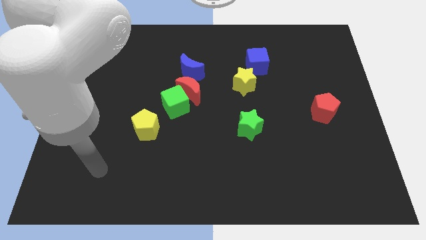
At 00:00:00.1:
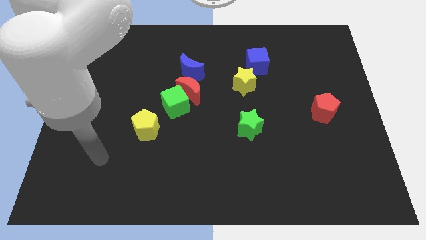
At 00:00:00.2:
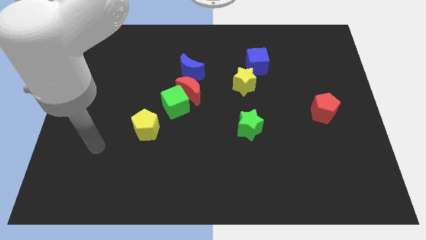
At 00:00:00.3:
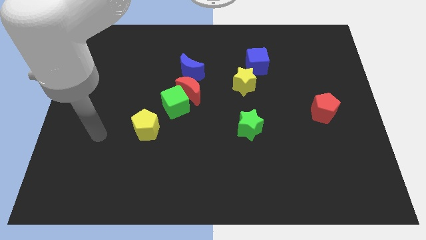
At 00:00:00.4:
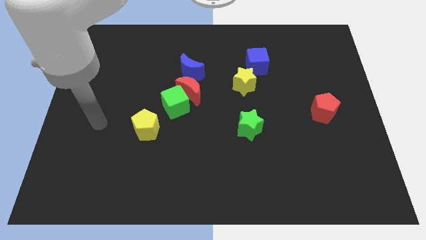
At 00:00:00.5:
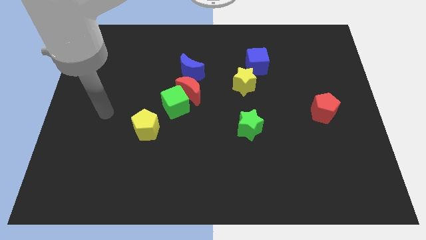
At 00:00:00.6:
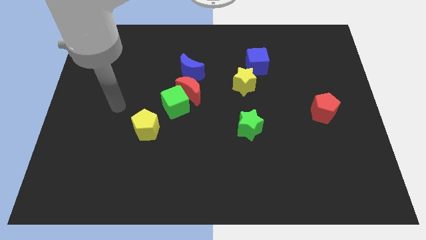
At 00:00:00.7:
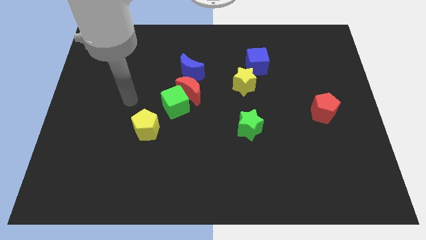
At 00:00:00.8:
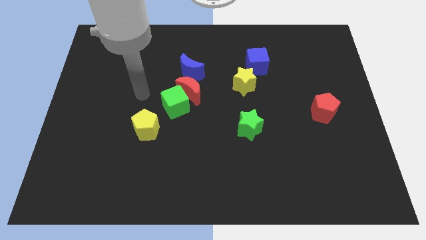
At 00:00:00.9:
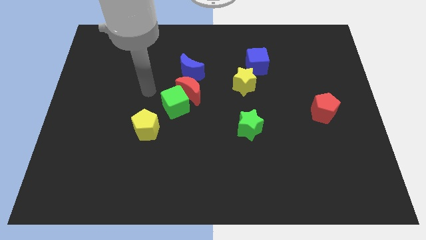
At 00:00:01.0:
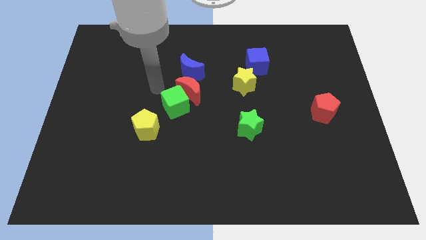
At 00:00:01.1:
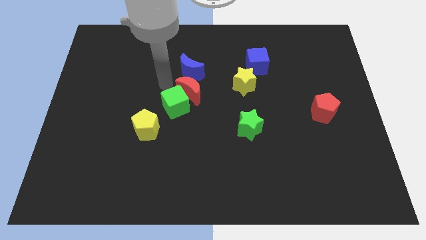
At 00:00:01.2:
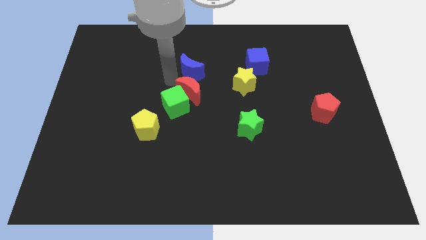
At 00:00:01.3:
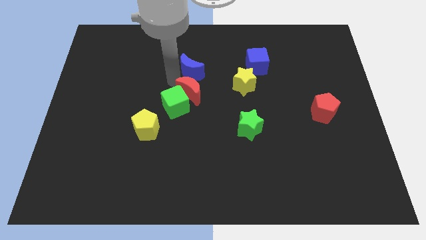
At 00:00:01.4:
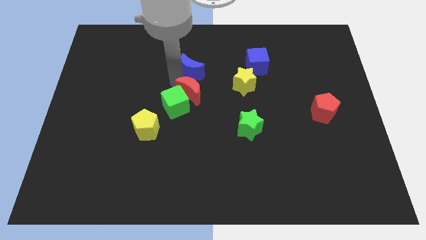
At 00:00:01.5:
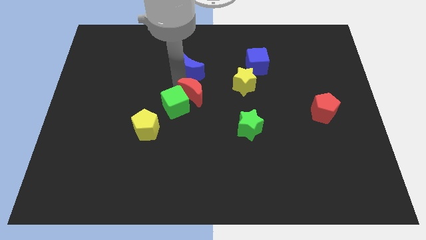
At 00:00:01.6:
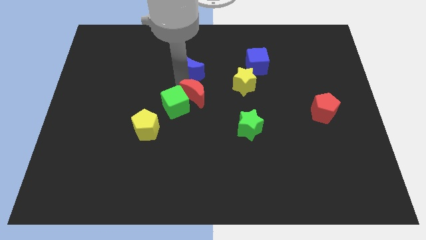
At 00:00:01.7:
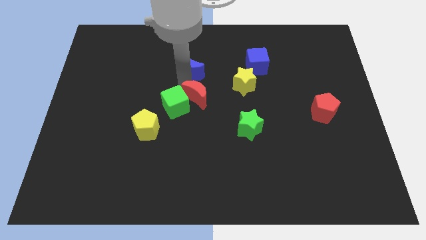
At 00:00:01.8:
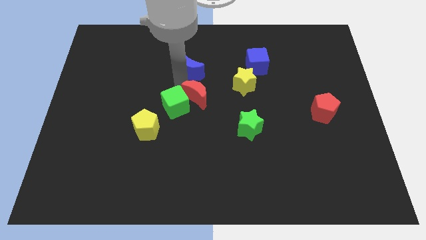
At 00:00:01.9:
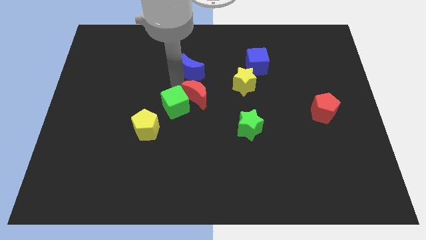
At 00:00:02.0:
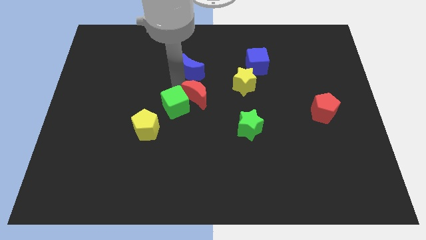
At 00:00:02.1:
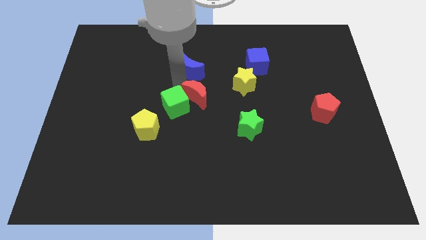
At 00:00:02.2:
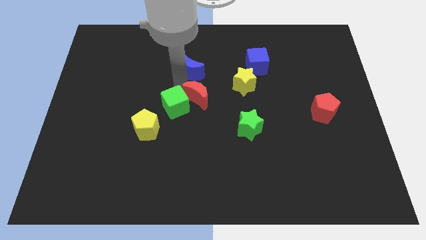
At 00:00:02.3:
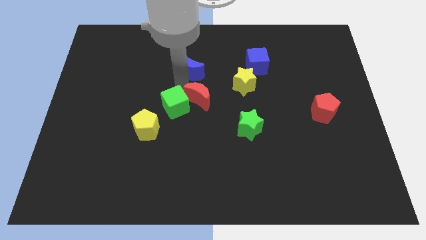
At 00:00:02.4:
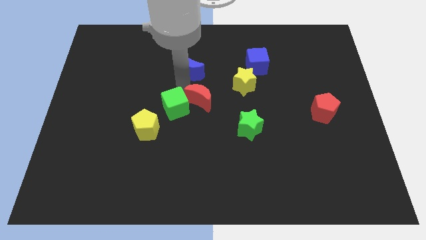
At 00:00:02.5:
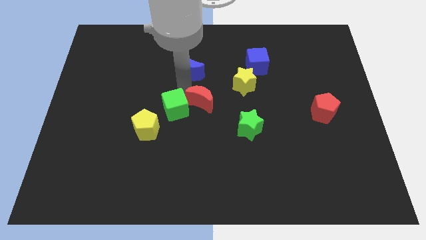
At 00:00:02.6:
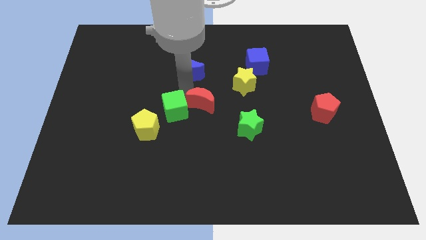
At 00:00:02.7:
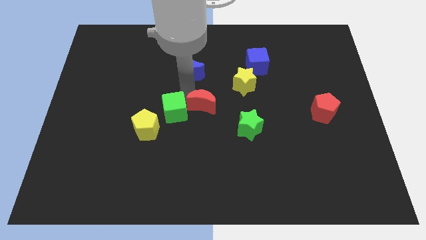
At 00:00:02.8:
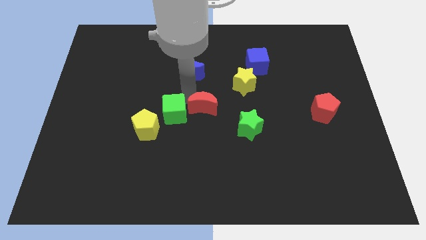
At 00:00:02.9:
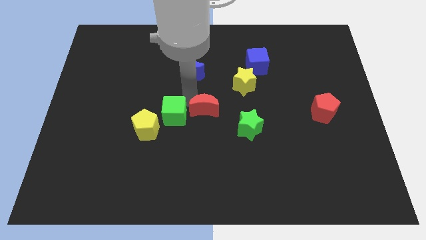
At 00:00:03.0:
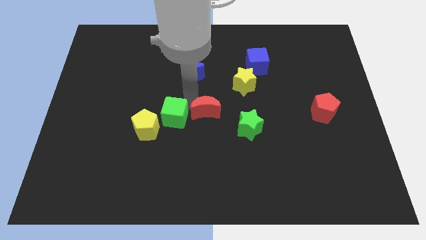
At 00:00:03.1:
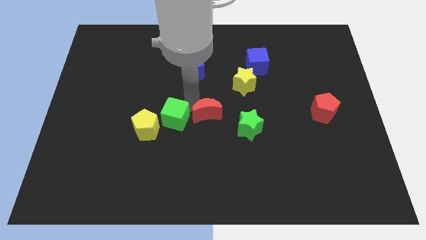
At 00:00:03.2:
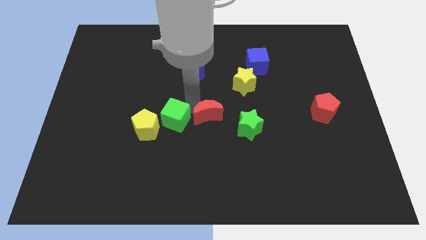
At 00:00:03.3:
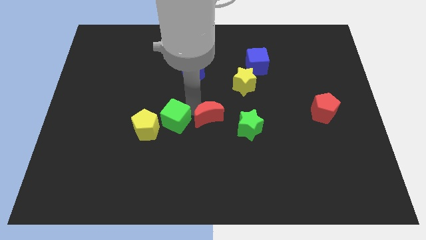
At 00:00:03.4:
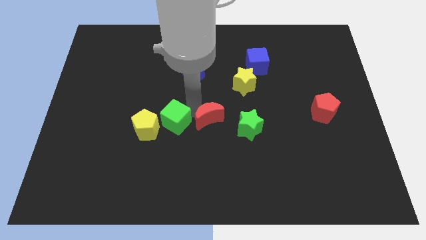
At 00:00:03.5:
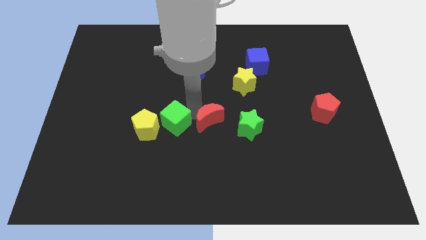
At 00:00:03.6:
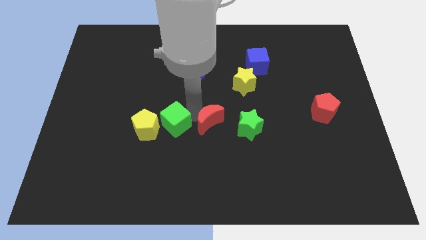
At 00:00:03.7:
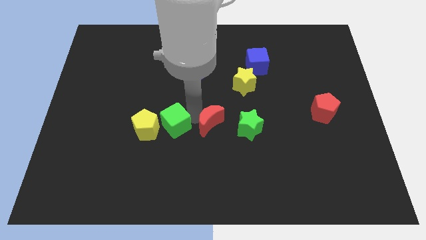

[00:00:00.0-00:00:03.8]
move the red moon away from the green cube and blue moon

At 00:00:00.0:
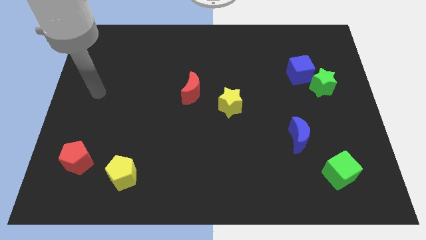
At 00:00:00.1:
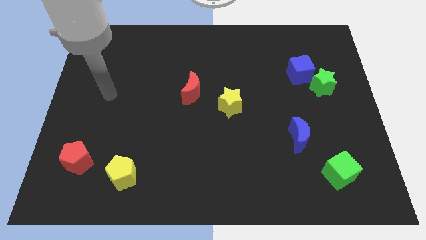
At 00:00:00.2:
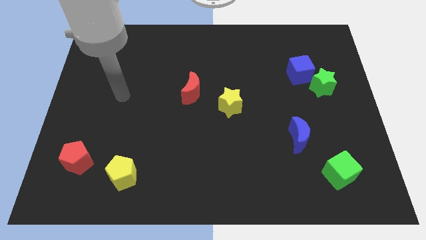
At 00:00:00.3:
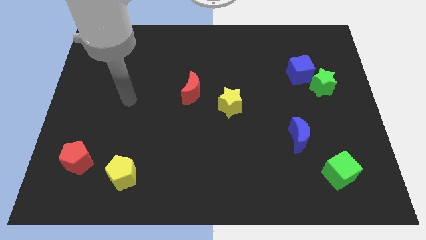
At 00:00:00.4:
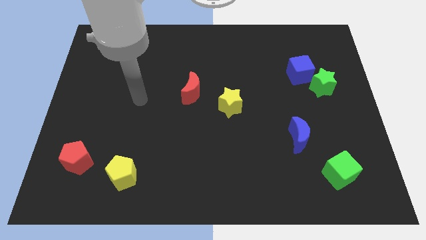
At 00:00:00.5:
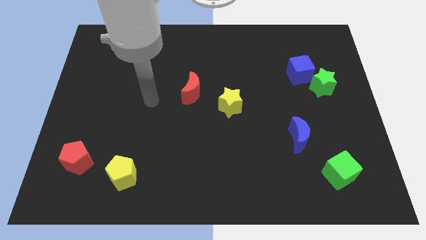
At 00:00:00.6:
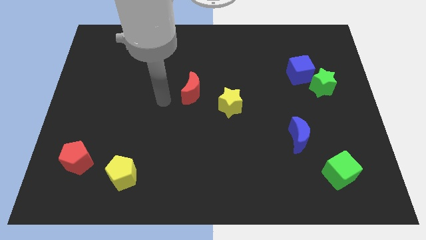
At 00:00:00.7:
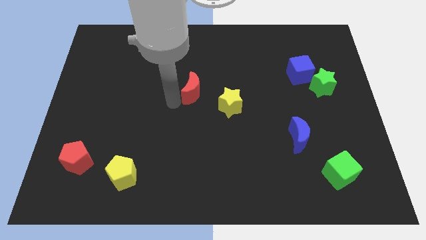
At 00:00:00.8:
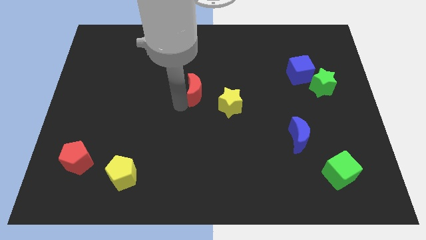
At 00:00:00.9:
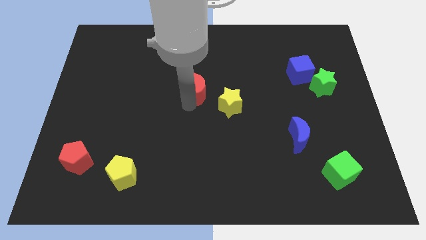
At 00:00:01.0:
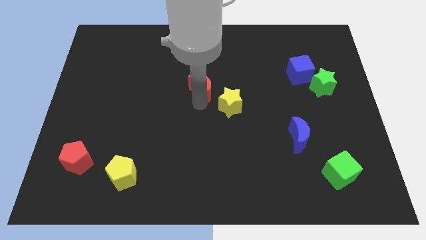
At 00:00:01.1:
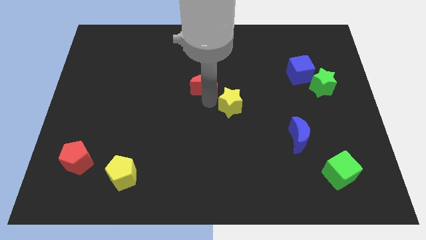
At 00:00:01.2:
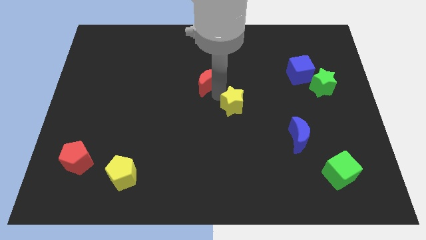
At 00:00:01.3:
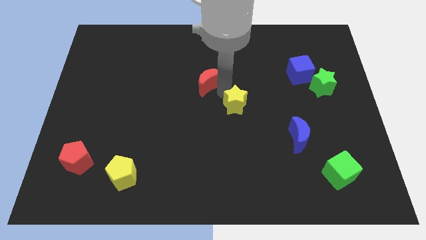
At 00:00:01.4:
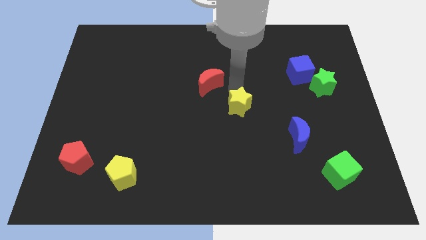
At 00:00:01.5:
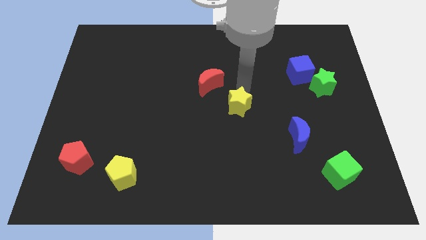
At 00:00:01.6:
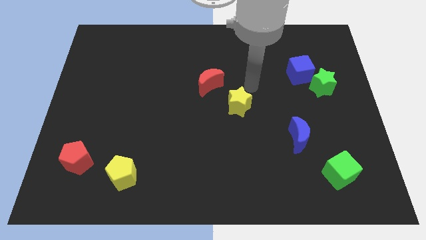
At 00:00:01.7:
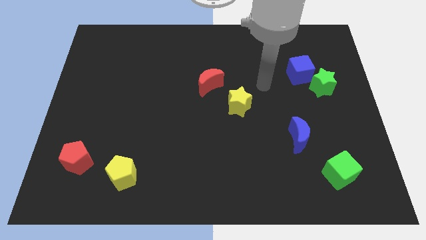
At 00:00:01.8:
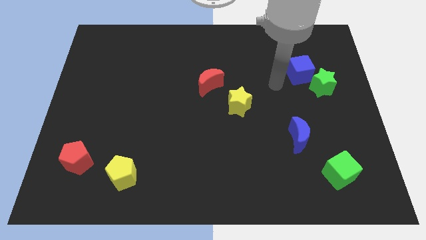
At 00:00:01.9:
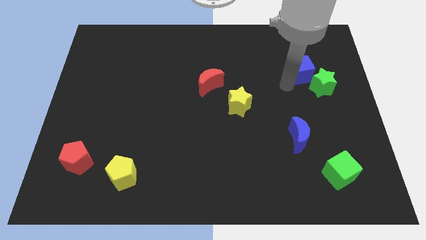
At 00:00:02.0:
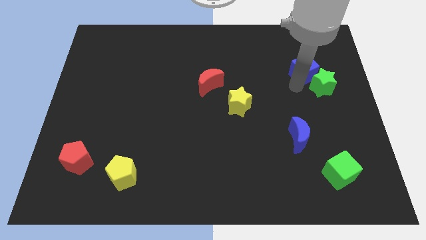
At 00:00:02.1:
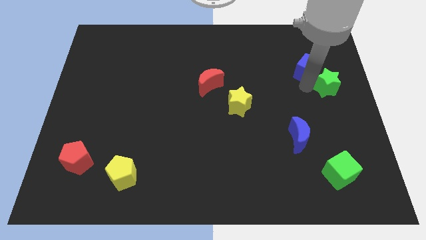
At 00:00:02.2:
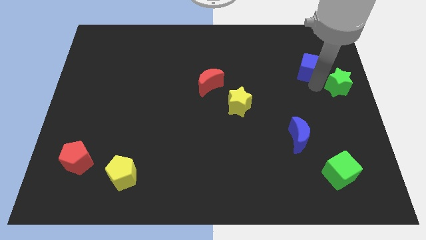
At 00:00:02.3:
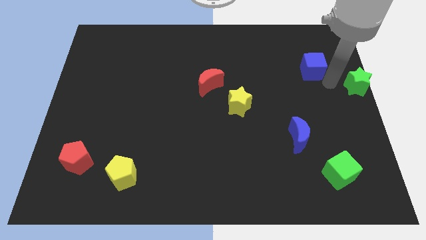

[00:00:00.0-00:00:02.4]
pull the blue cube apart from the green star

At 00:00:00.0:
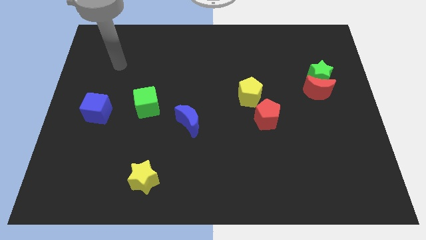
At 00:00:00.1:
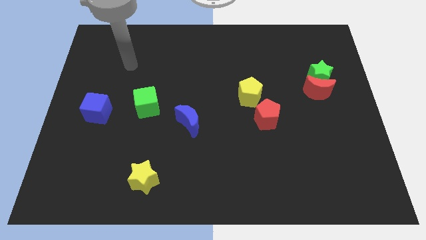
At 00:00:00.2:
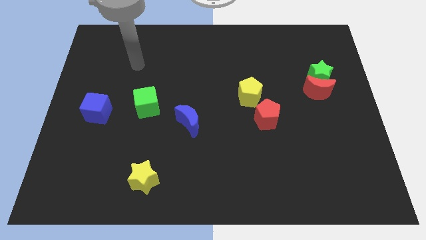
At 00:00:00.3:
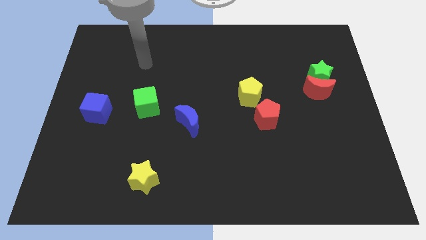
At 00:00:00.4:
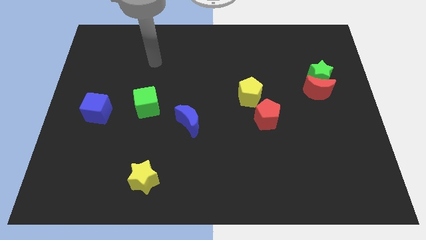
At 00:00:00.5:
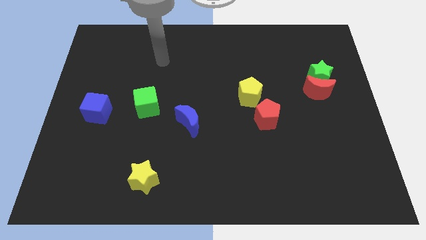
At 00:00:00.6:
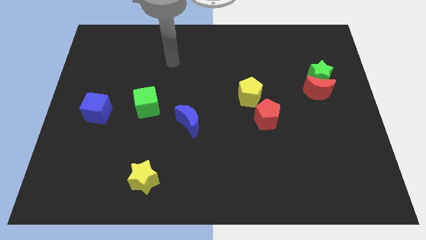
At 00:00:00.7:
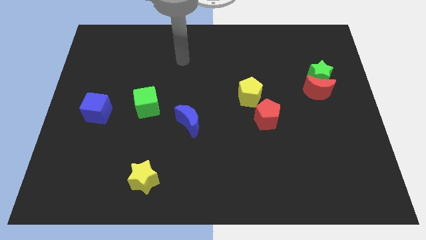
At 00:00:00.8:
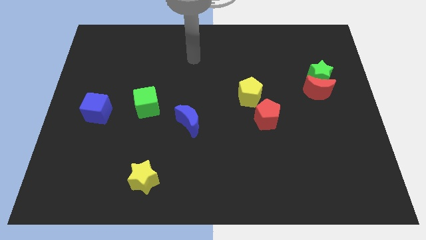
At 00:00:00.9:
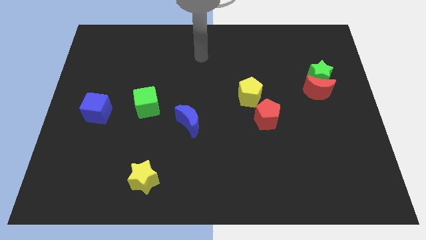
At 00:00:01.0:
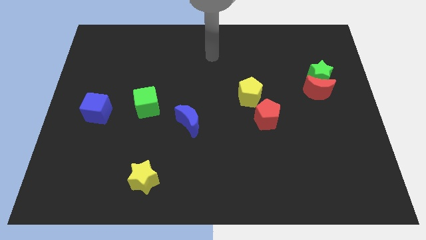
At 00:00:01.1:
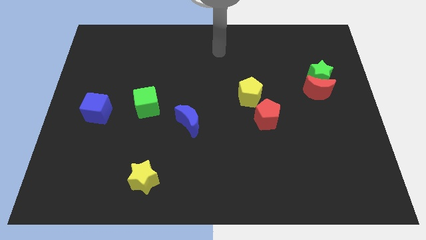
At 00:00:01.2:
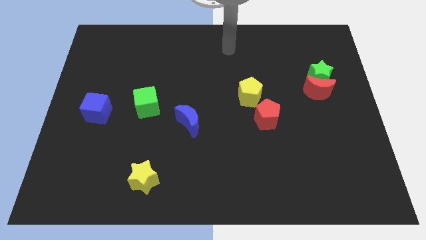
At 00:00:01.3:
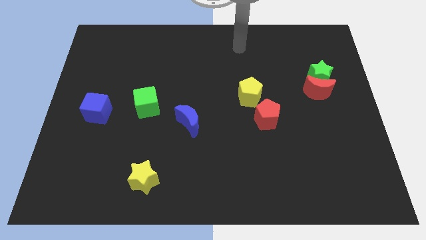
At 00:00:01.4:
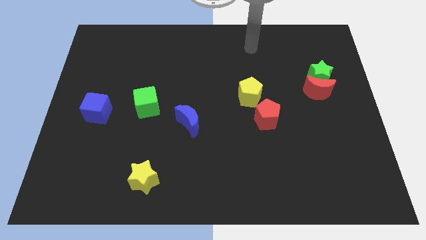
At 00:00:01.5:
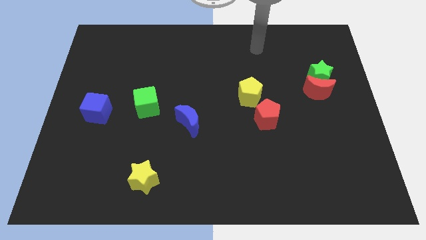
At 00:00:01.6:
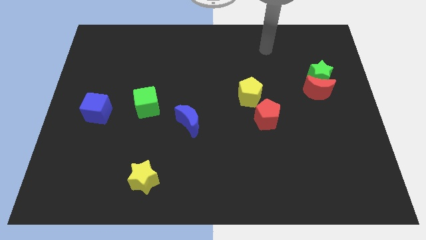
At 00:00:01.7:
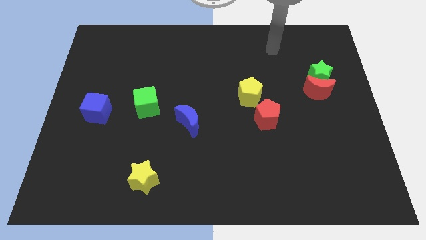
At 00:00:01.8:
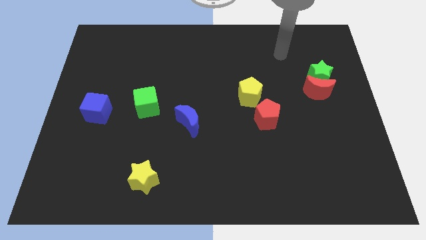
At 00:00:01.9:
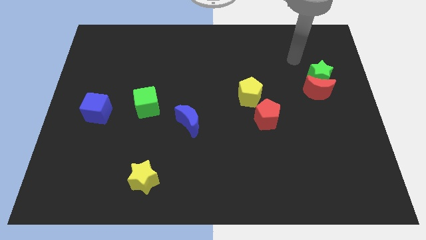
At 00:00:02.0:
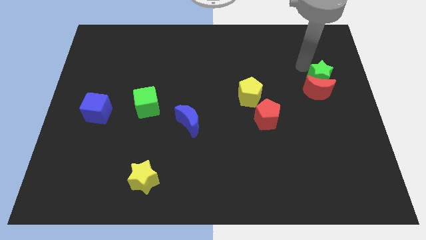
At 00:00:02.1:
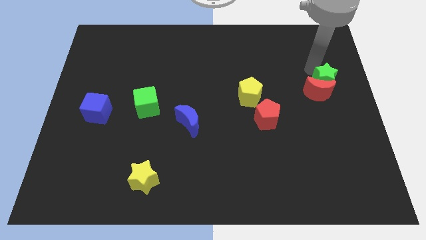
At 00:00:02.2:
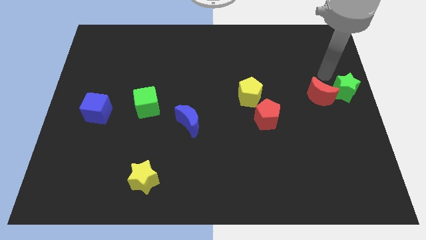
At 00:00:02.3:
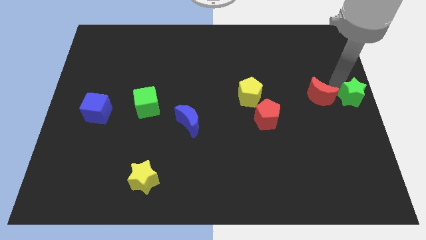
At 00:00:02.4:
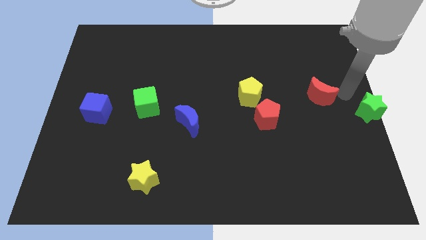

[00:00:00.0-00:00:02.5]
pull the red moon apart from the green star

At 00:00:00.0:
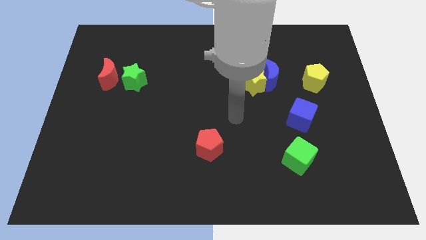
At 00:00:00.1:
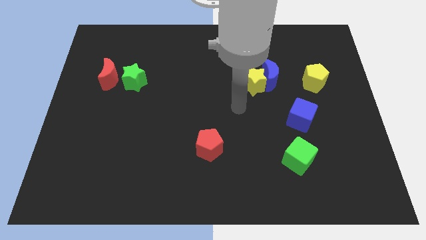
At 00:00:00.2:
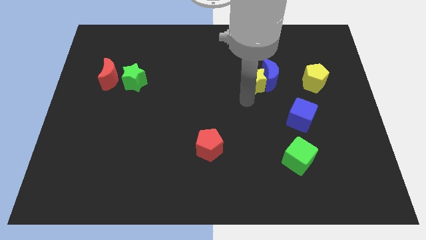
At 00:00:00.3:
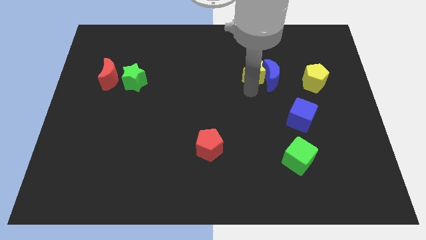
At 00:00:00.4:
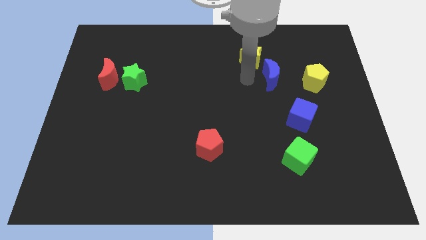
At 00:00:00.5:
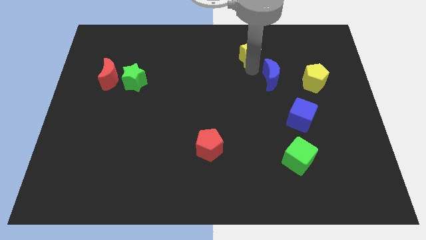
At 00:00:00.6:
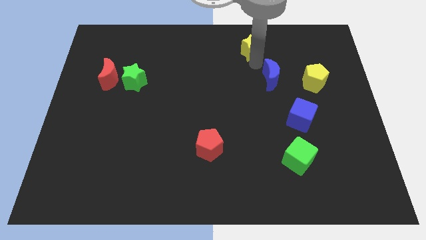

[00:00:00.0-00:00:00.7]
pull the blue moon apart from the yellow star
